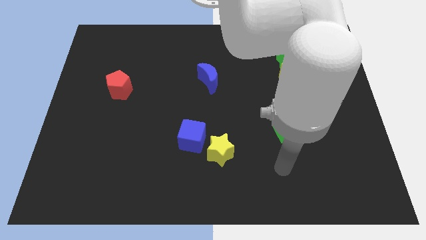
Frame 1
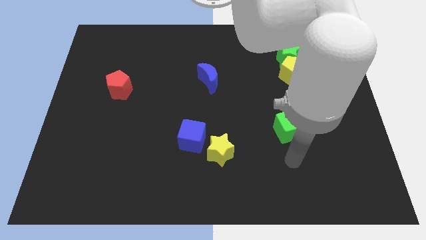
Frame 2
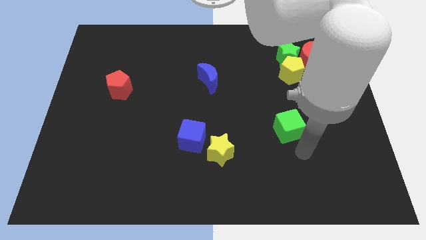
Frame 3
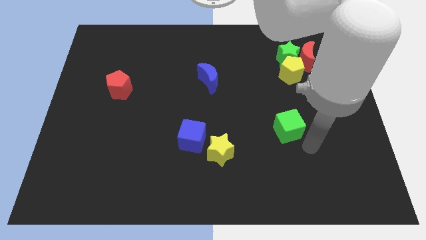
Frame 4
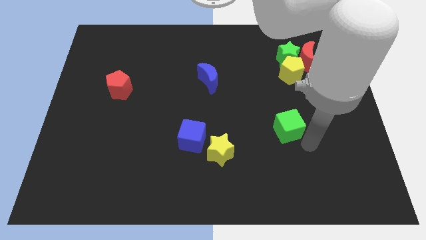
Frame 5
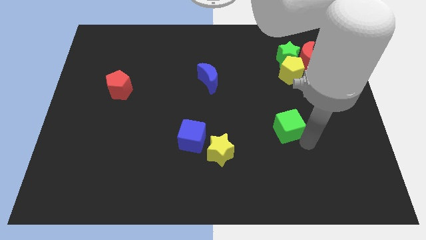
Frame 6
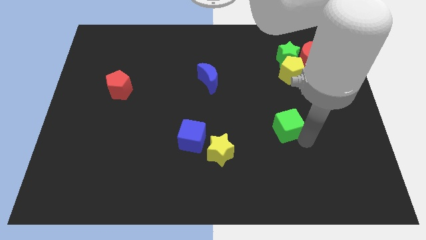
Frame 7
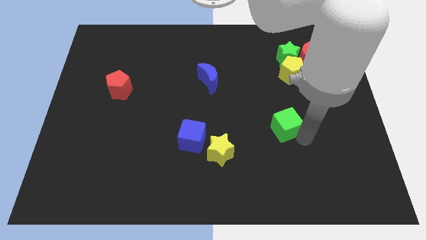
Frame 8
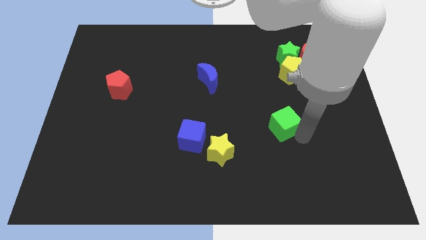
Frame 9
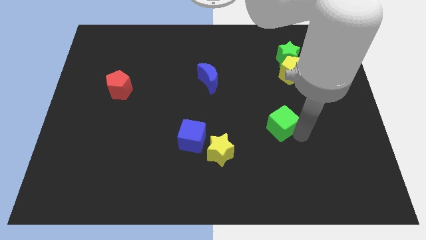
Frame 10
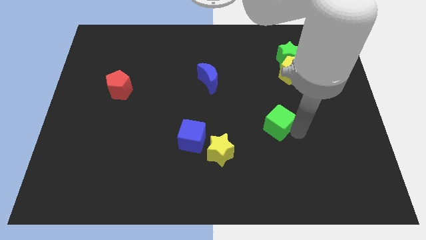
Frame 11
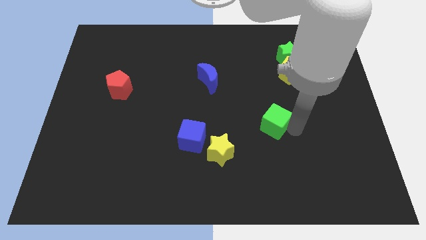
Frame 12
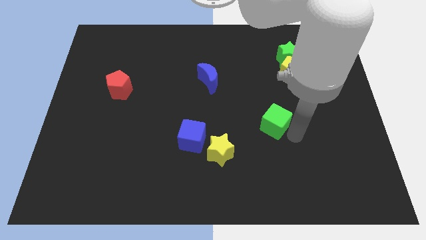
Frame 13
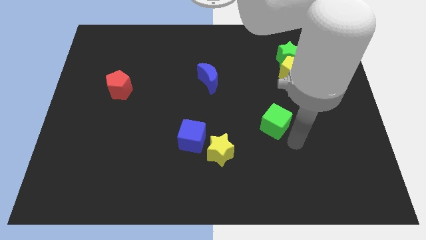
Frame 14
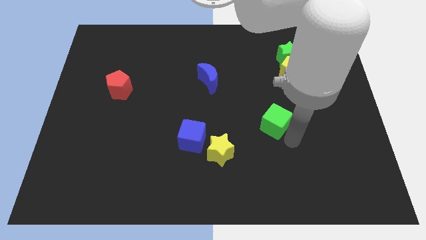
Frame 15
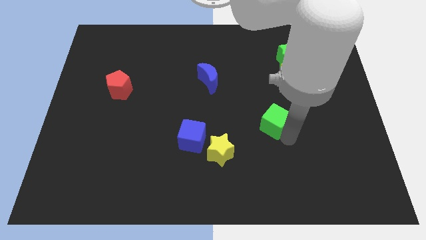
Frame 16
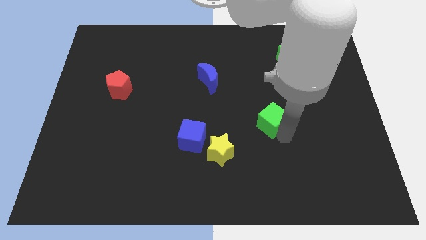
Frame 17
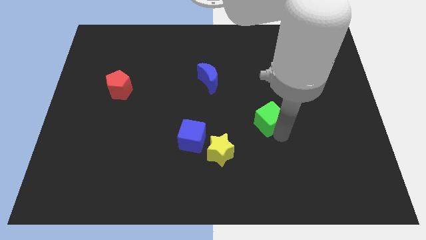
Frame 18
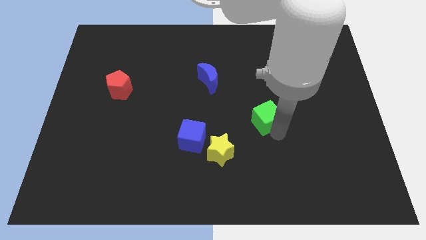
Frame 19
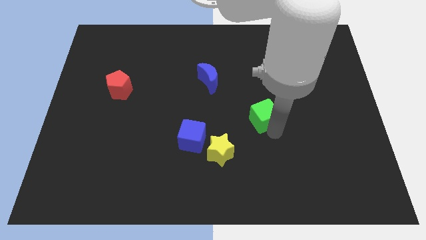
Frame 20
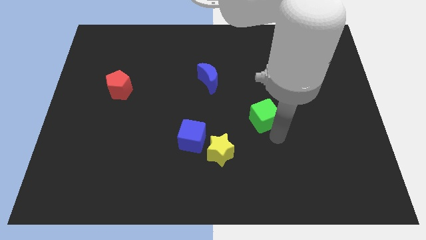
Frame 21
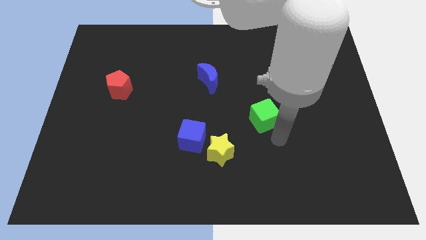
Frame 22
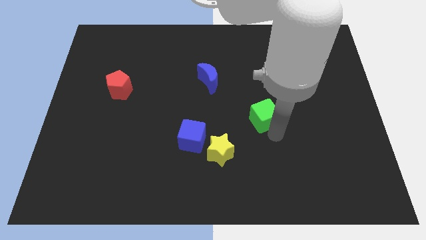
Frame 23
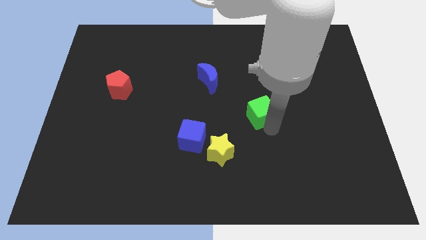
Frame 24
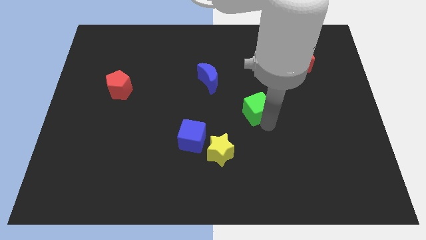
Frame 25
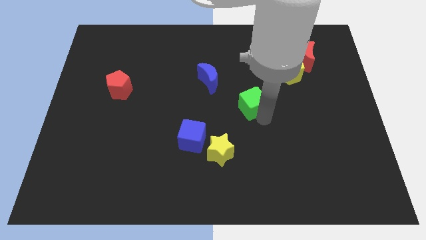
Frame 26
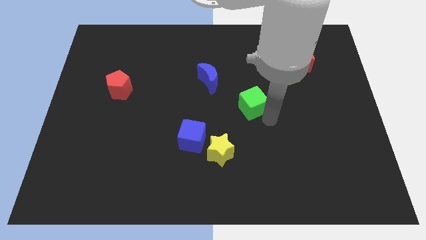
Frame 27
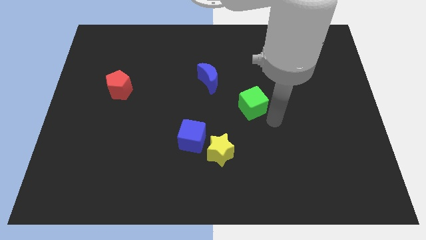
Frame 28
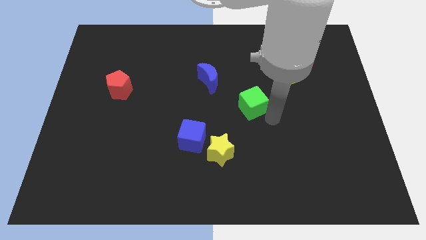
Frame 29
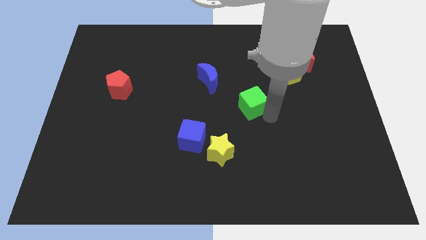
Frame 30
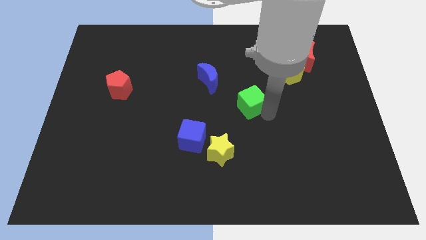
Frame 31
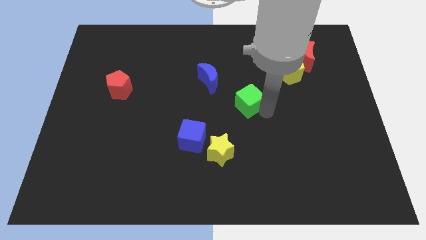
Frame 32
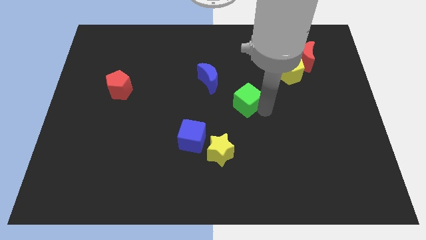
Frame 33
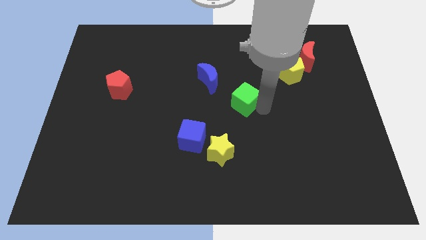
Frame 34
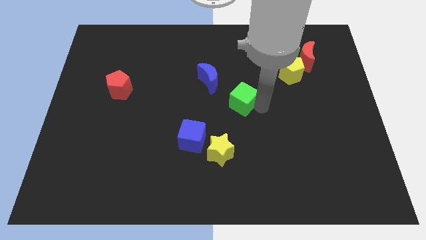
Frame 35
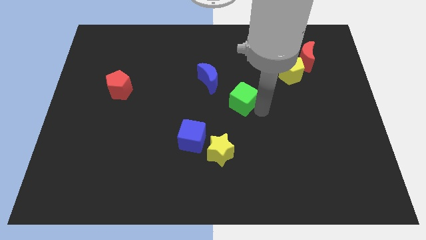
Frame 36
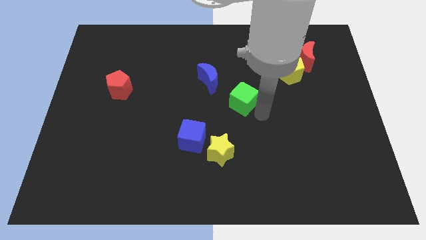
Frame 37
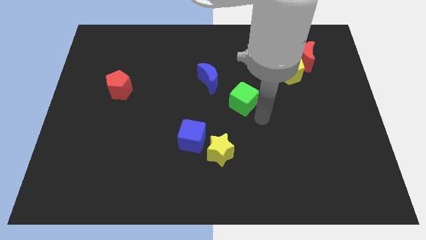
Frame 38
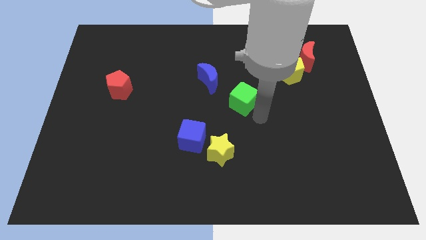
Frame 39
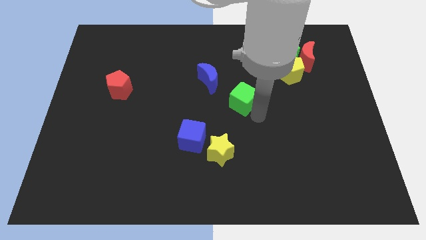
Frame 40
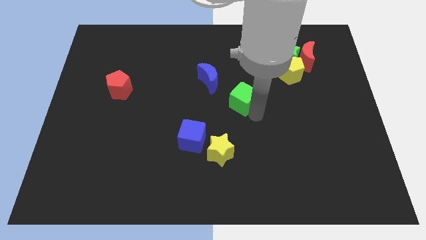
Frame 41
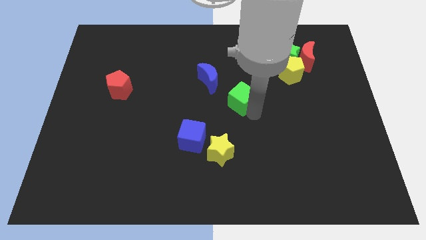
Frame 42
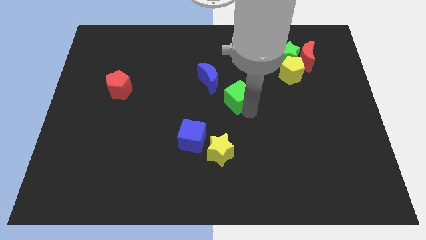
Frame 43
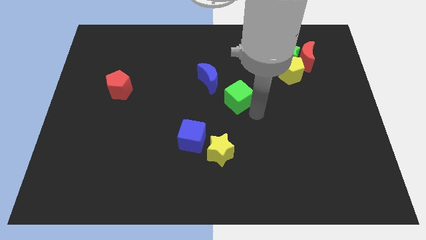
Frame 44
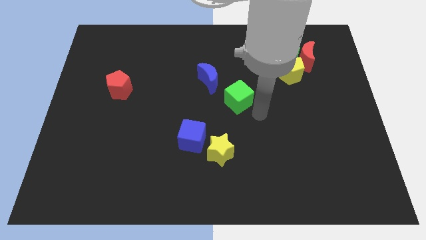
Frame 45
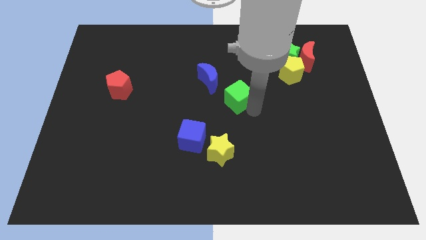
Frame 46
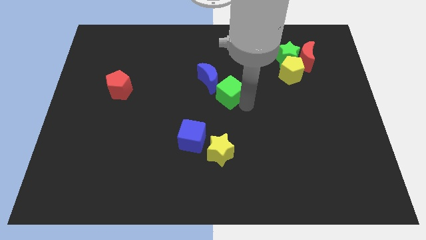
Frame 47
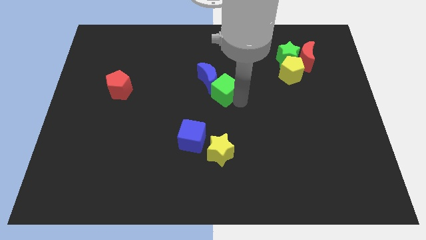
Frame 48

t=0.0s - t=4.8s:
push the green cube towards the blue moon

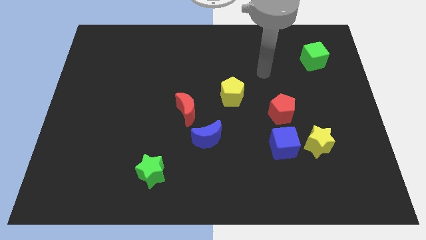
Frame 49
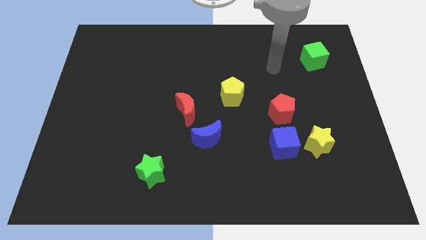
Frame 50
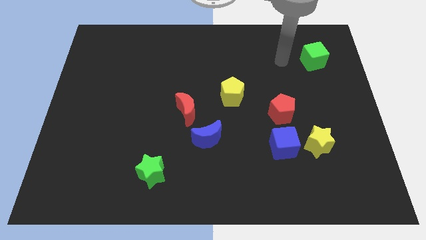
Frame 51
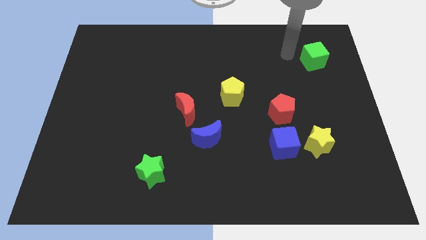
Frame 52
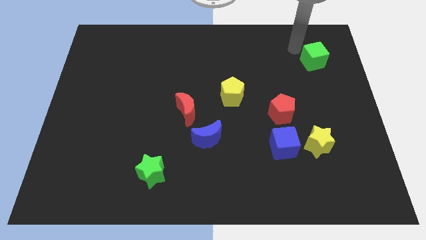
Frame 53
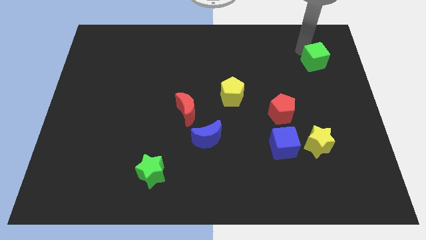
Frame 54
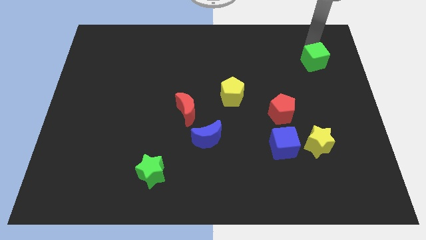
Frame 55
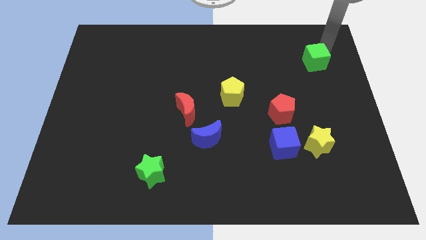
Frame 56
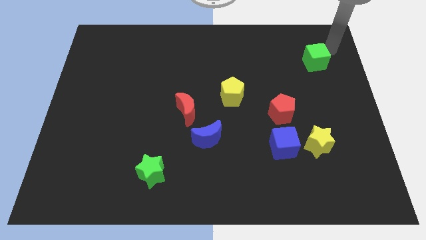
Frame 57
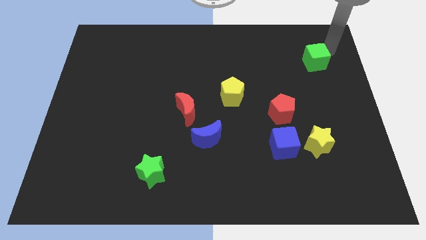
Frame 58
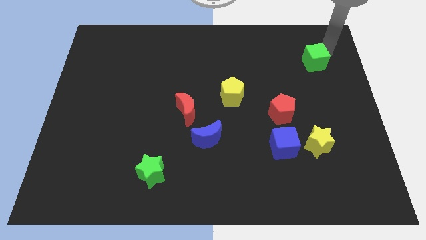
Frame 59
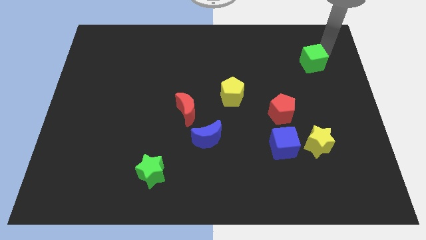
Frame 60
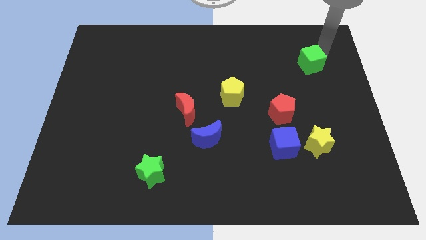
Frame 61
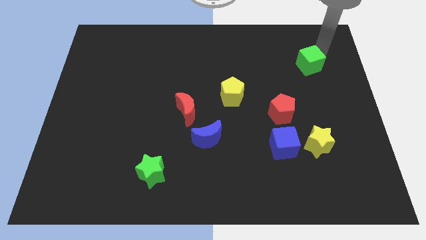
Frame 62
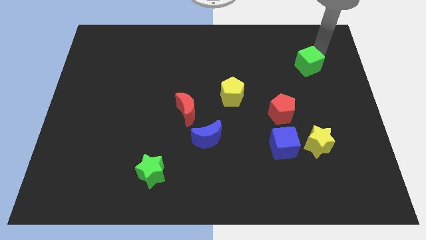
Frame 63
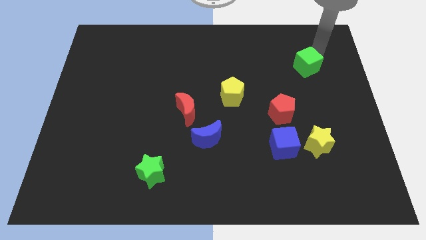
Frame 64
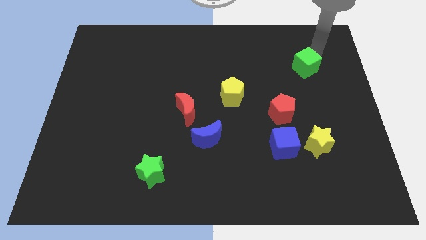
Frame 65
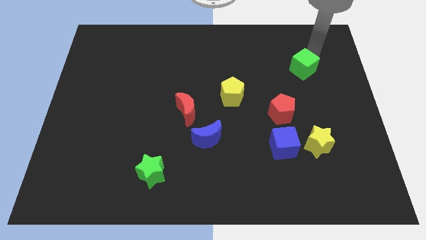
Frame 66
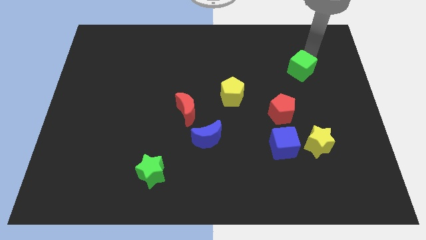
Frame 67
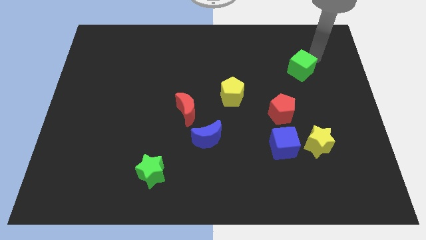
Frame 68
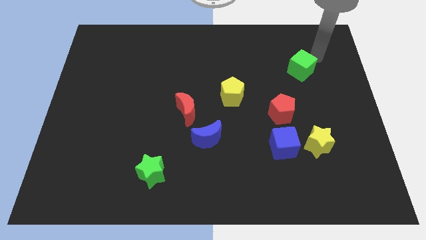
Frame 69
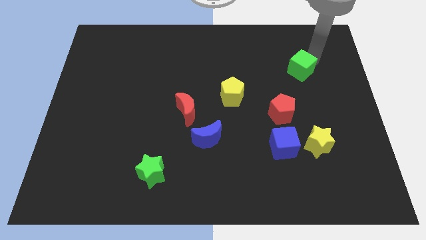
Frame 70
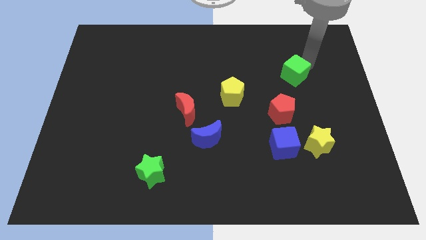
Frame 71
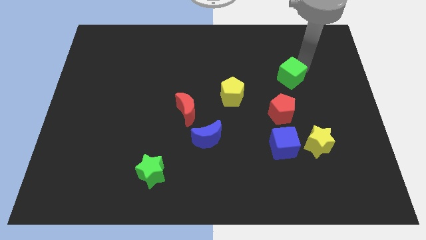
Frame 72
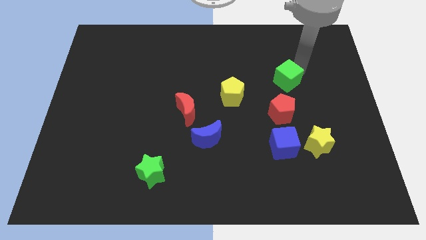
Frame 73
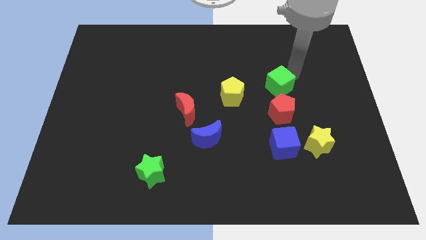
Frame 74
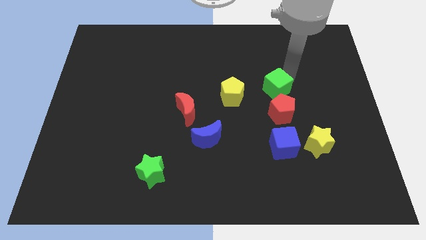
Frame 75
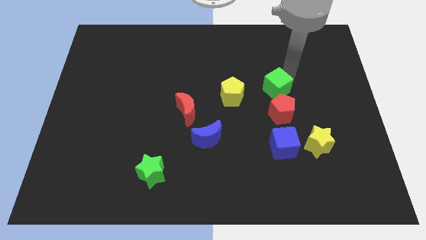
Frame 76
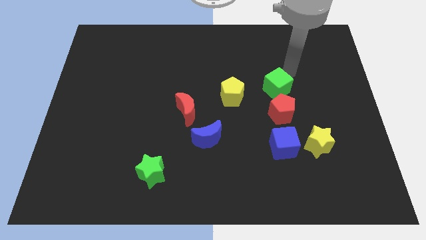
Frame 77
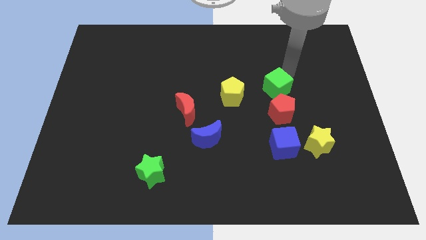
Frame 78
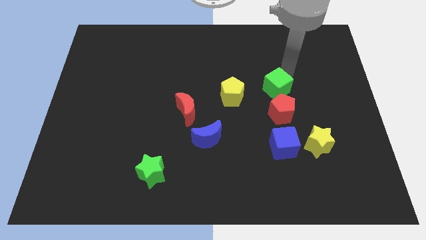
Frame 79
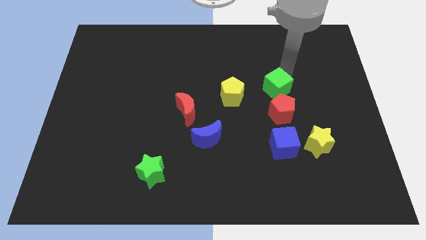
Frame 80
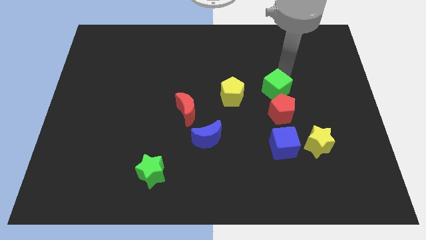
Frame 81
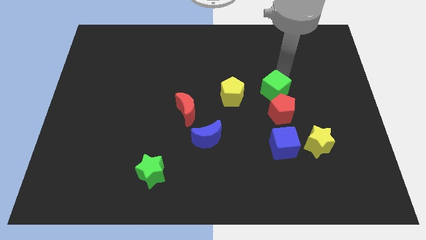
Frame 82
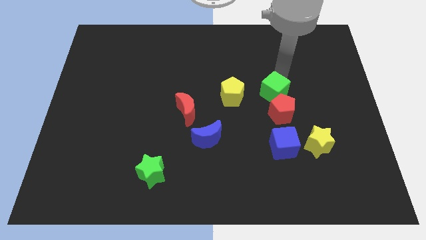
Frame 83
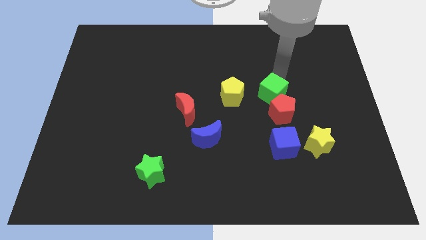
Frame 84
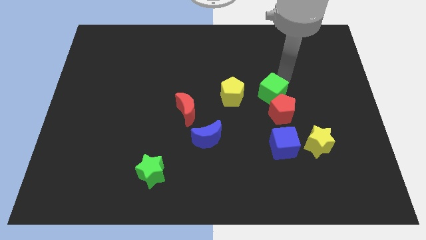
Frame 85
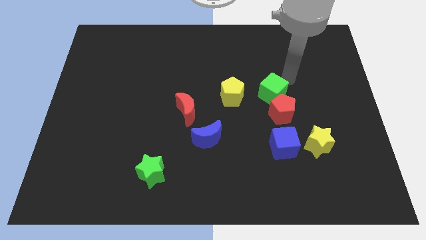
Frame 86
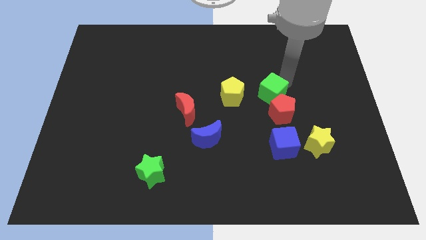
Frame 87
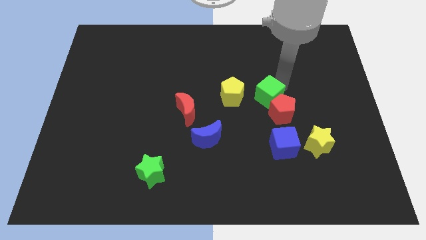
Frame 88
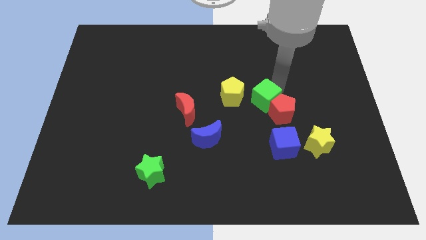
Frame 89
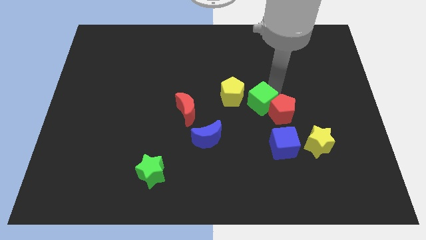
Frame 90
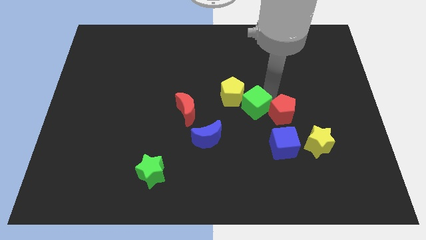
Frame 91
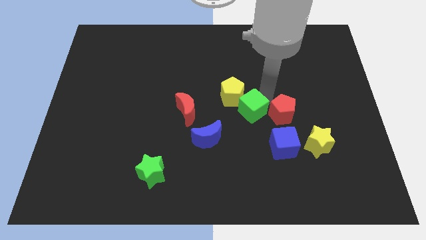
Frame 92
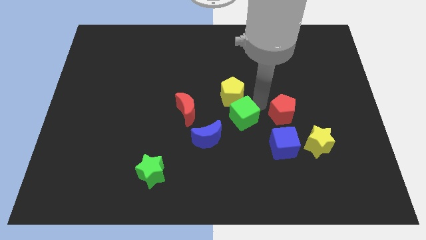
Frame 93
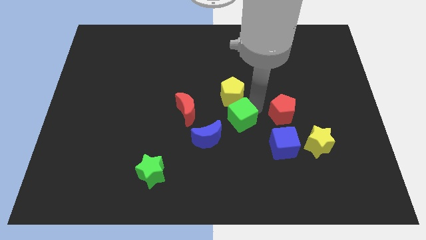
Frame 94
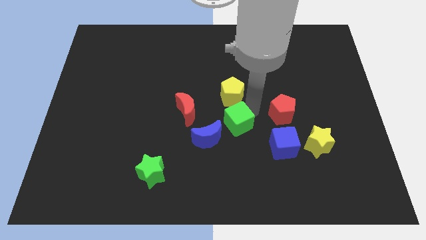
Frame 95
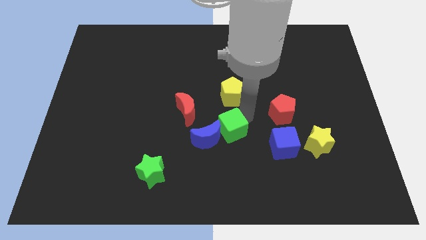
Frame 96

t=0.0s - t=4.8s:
slide the green cube next to the blue moon
